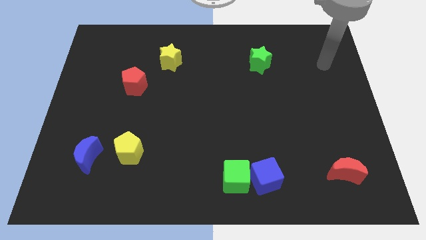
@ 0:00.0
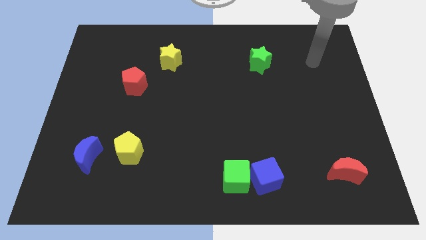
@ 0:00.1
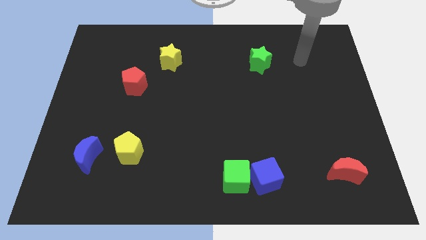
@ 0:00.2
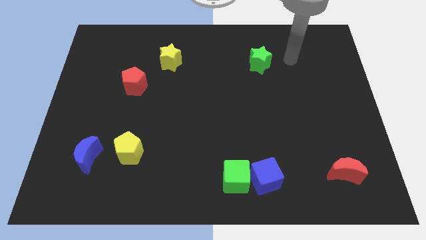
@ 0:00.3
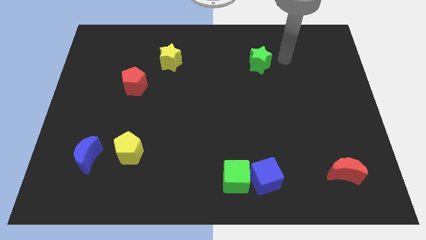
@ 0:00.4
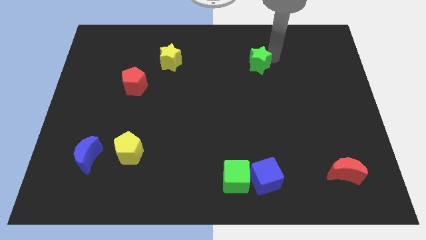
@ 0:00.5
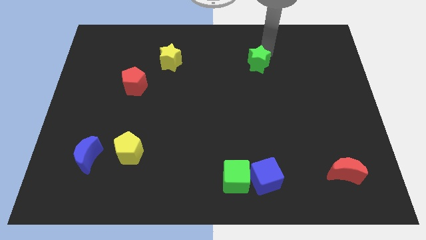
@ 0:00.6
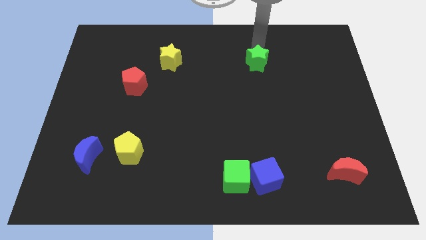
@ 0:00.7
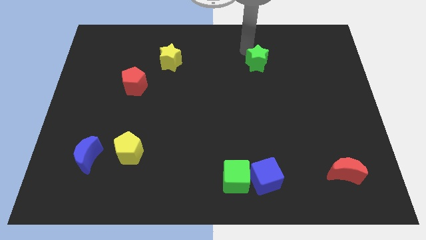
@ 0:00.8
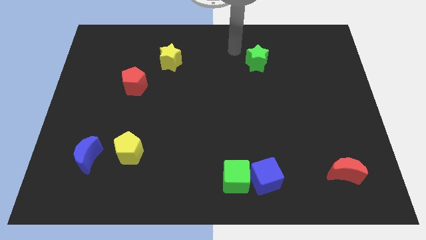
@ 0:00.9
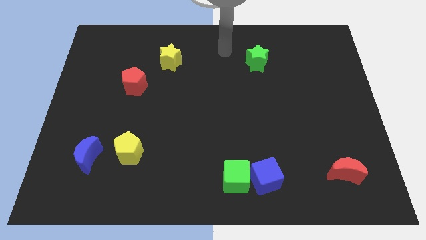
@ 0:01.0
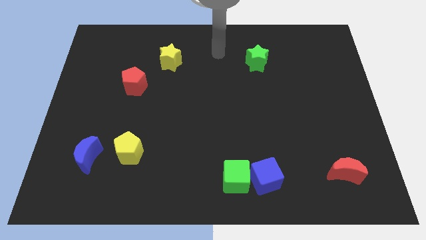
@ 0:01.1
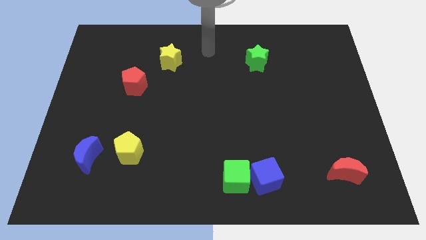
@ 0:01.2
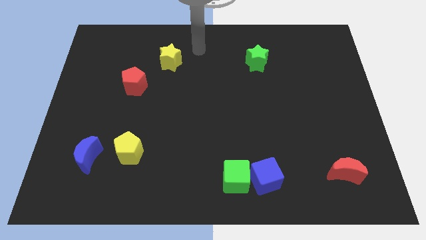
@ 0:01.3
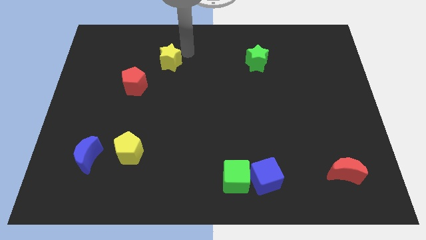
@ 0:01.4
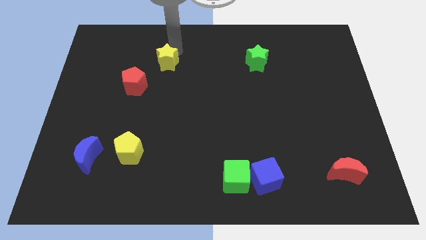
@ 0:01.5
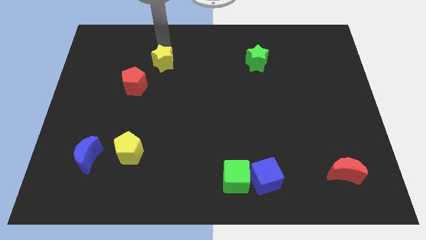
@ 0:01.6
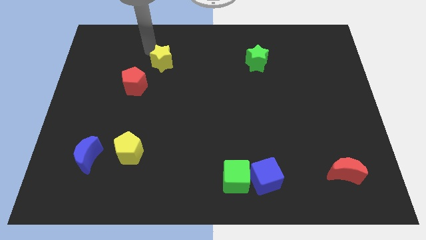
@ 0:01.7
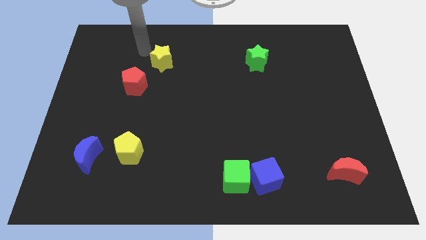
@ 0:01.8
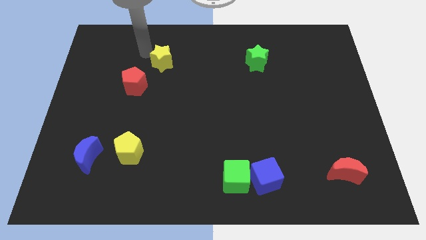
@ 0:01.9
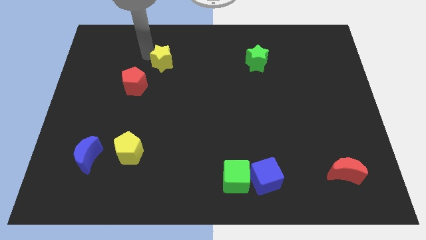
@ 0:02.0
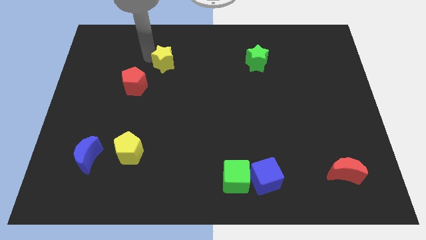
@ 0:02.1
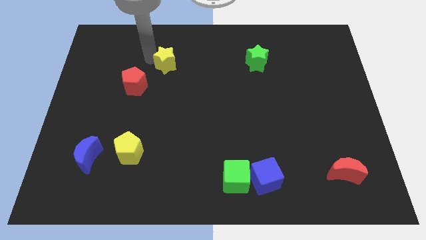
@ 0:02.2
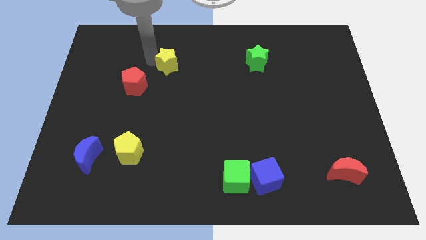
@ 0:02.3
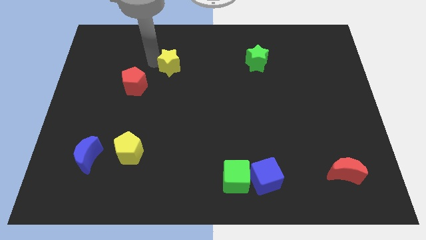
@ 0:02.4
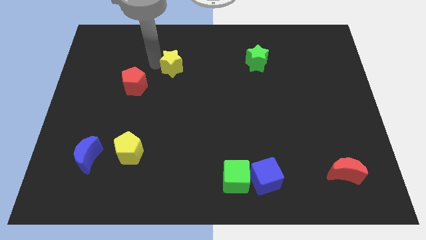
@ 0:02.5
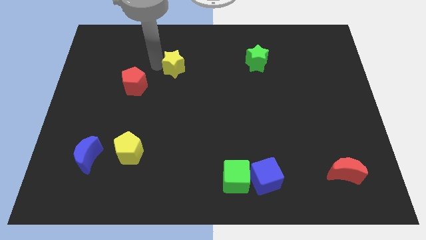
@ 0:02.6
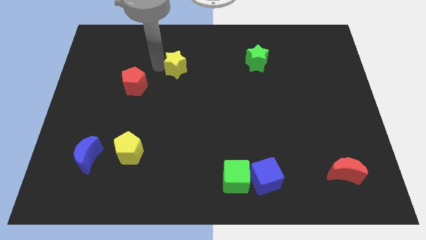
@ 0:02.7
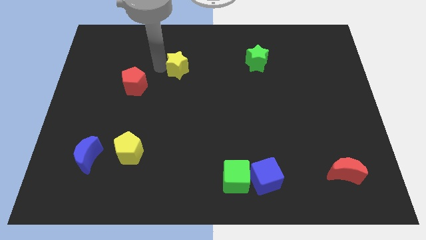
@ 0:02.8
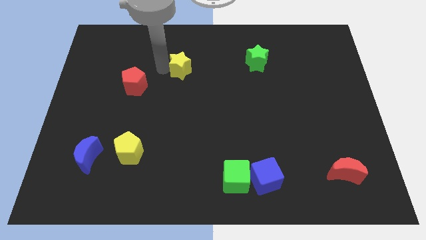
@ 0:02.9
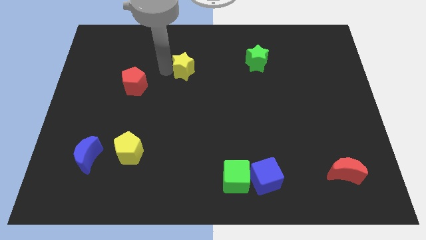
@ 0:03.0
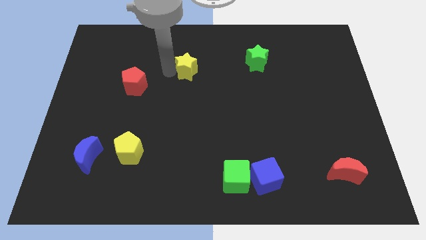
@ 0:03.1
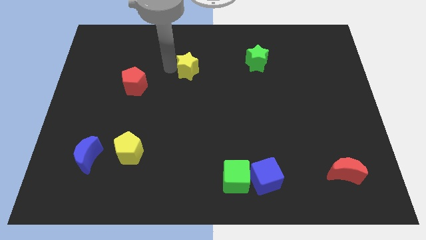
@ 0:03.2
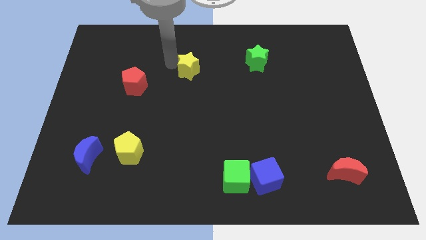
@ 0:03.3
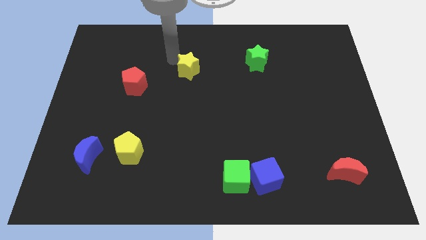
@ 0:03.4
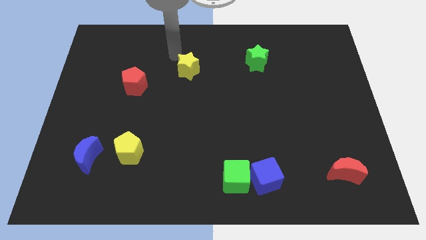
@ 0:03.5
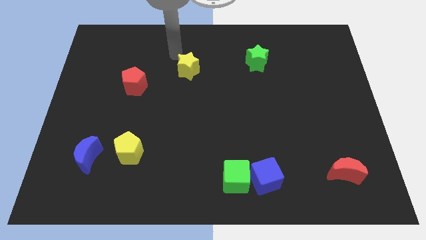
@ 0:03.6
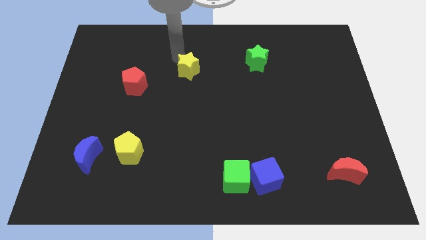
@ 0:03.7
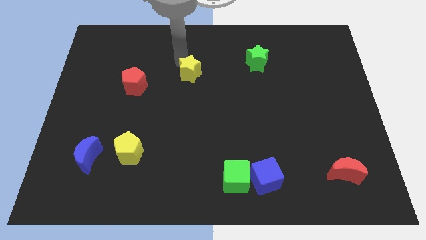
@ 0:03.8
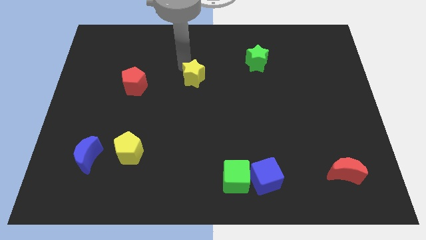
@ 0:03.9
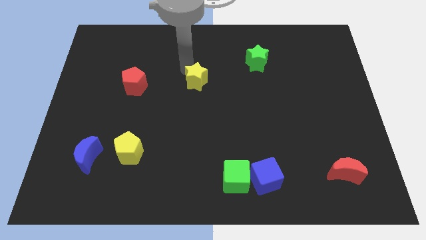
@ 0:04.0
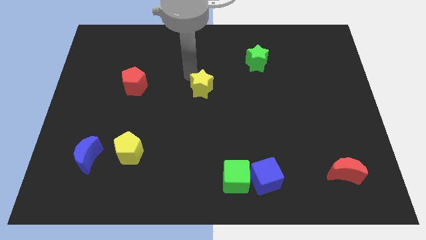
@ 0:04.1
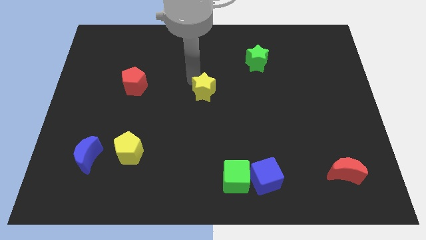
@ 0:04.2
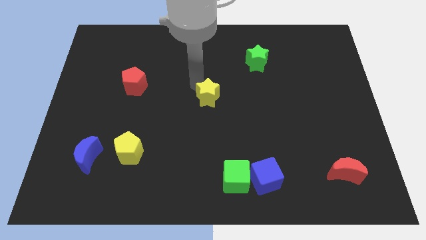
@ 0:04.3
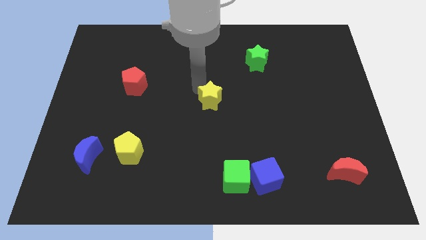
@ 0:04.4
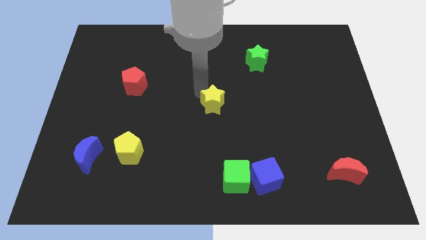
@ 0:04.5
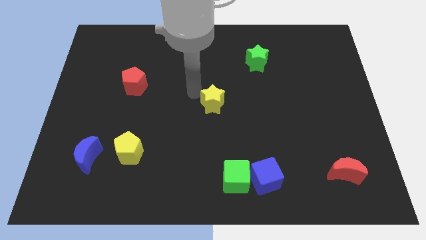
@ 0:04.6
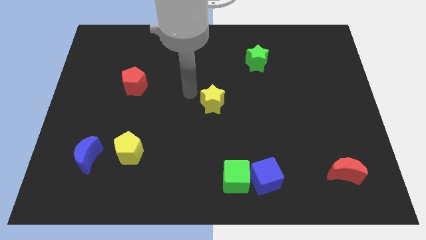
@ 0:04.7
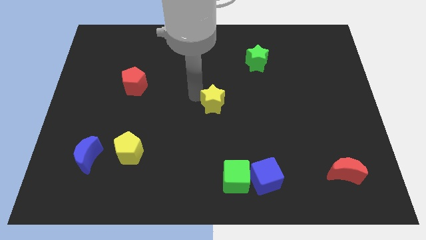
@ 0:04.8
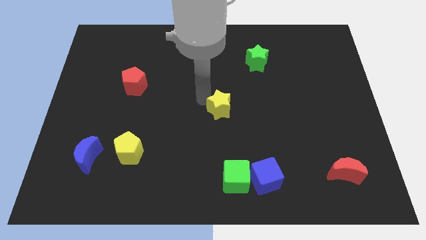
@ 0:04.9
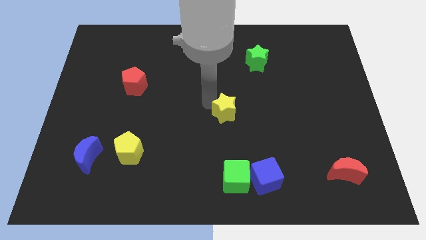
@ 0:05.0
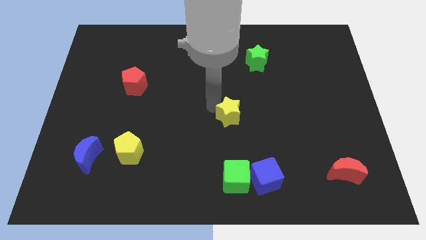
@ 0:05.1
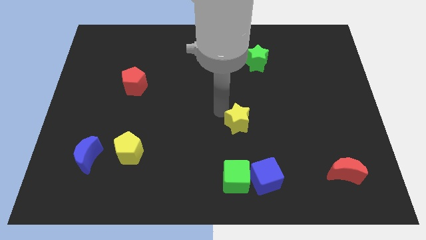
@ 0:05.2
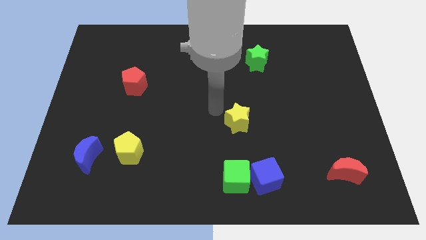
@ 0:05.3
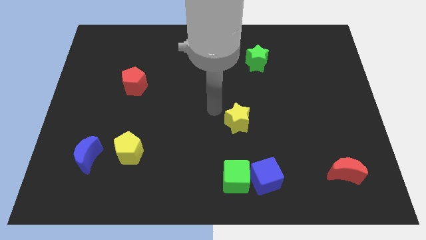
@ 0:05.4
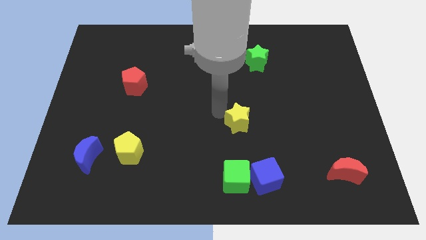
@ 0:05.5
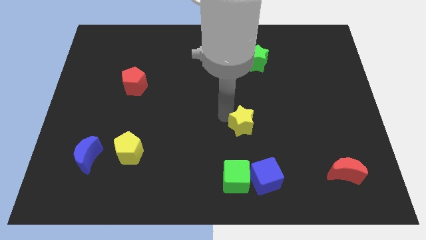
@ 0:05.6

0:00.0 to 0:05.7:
put the yellow star above the blue cube

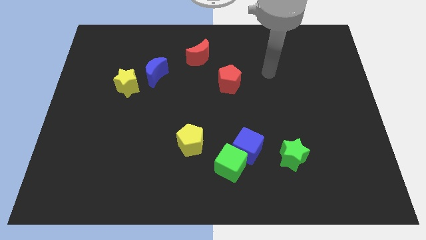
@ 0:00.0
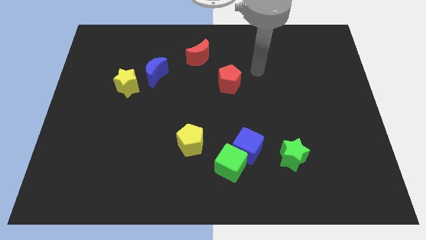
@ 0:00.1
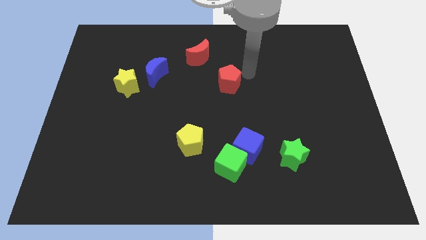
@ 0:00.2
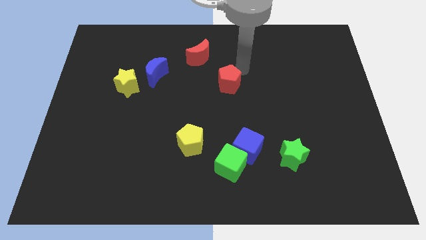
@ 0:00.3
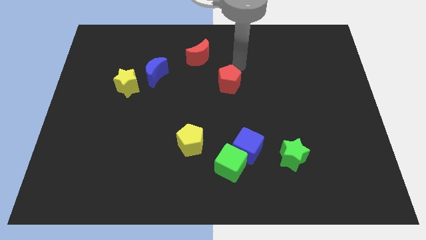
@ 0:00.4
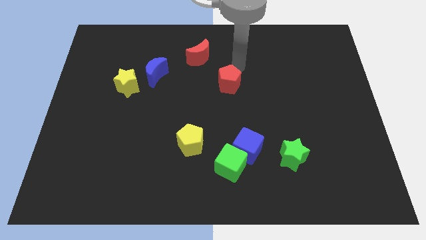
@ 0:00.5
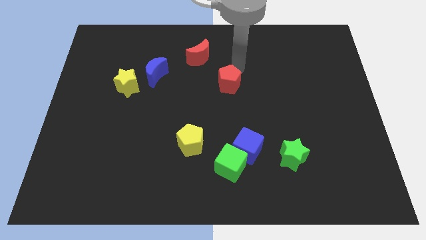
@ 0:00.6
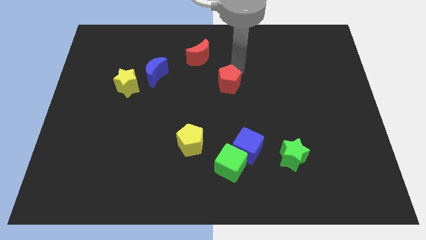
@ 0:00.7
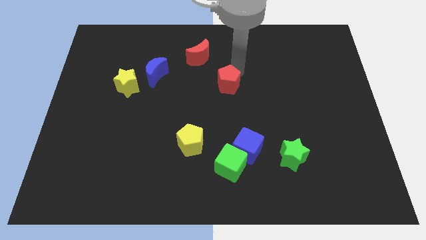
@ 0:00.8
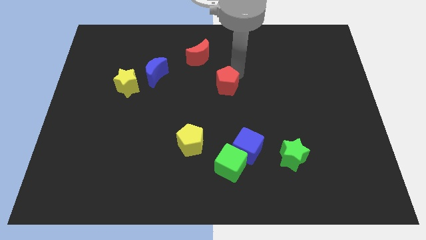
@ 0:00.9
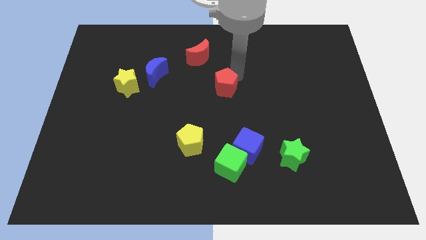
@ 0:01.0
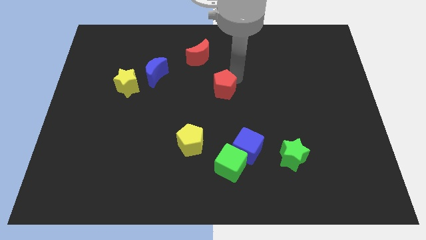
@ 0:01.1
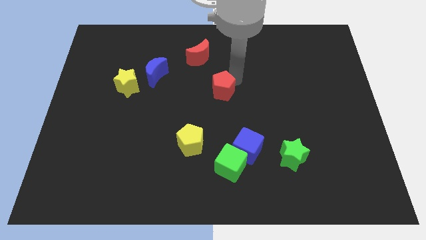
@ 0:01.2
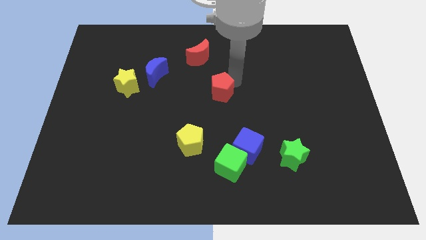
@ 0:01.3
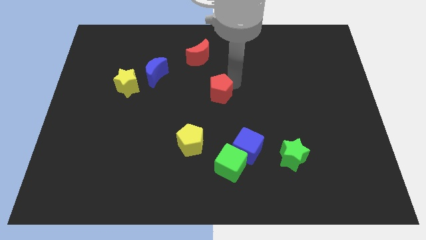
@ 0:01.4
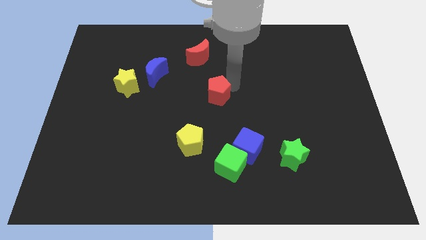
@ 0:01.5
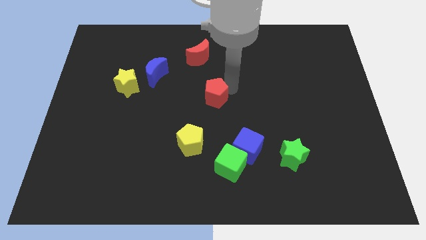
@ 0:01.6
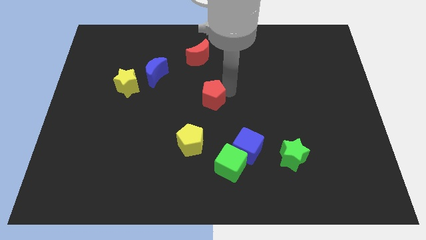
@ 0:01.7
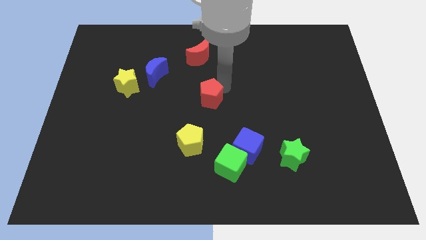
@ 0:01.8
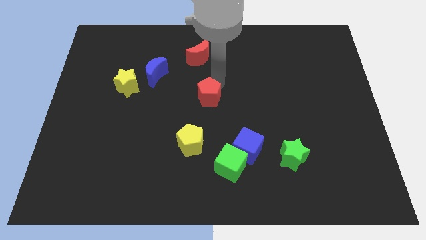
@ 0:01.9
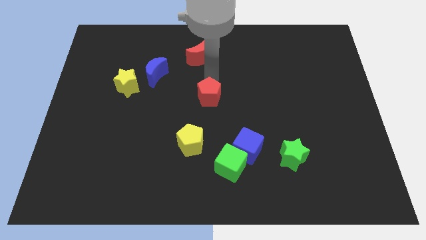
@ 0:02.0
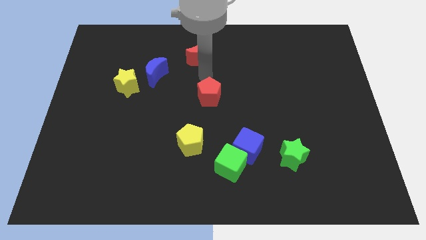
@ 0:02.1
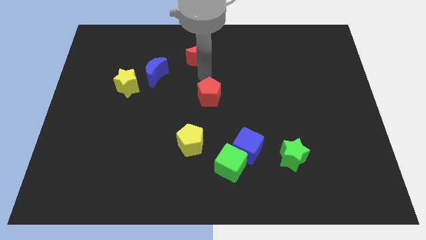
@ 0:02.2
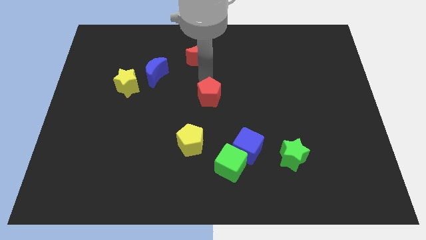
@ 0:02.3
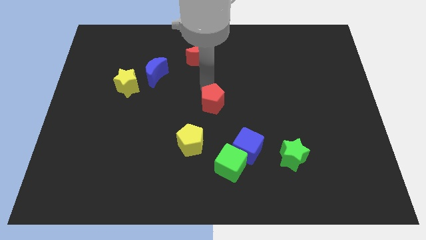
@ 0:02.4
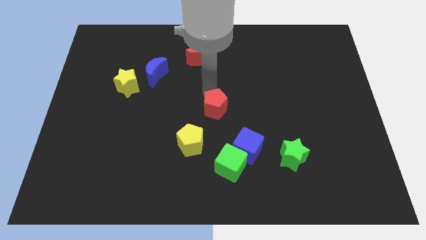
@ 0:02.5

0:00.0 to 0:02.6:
push the red pentagon to the top right of the yellow pentagon
